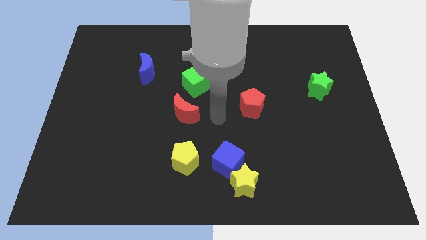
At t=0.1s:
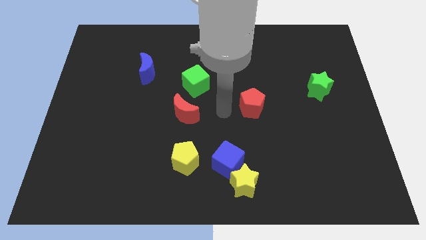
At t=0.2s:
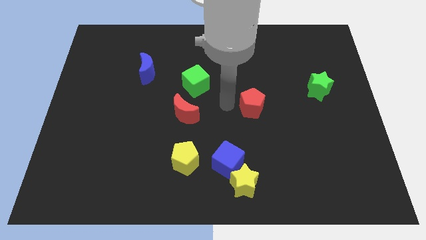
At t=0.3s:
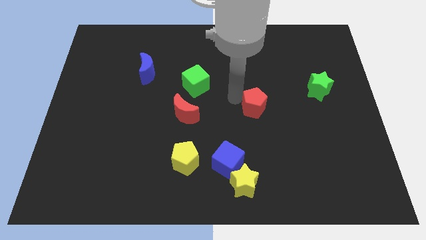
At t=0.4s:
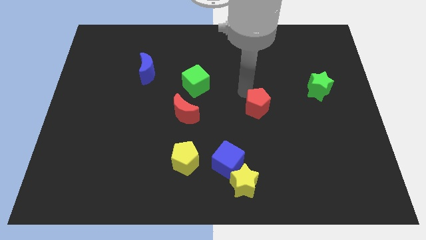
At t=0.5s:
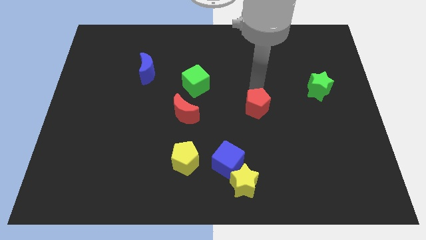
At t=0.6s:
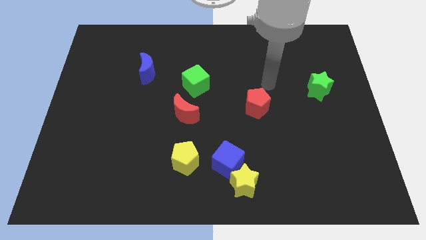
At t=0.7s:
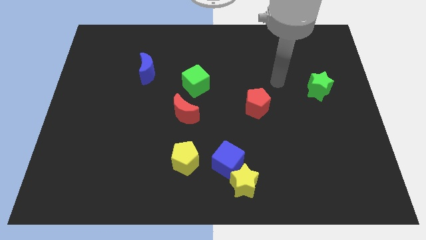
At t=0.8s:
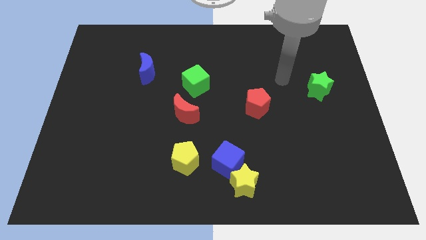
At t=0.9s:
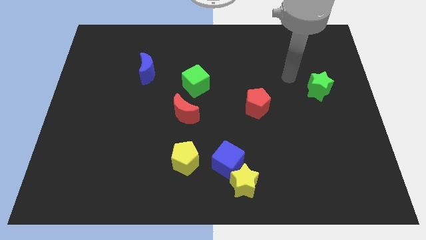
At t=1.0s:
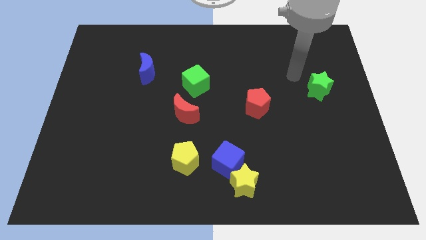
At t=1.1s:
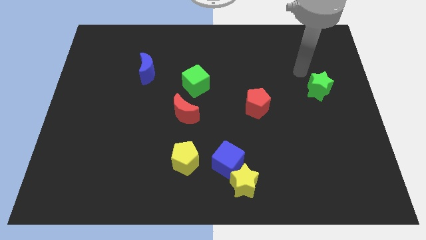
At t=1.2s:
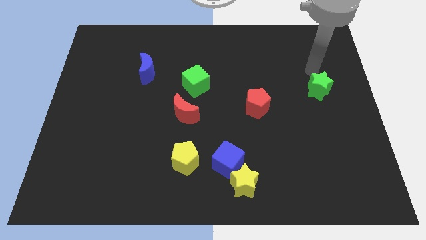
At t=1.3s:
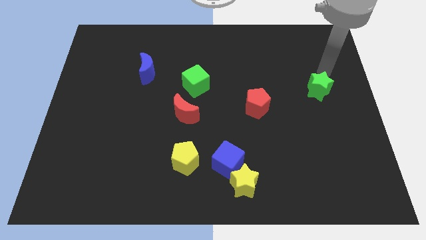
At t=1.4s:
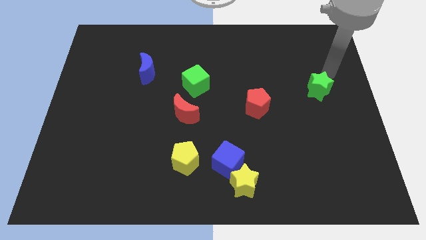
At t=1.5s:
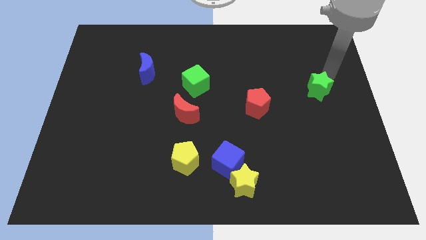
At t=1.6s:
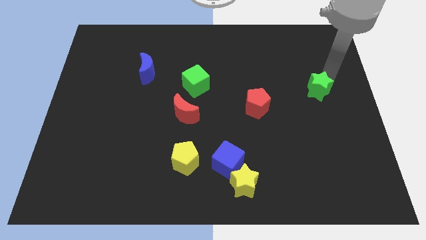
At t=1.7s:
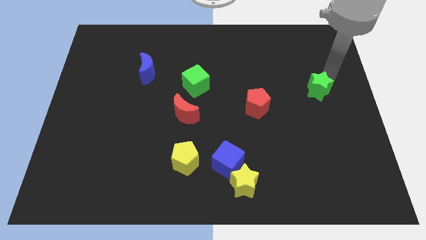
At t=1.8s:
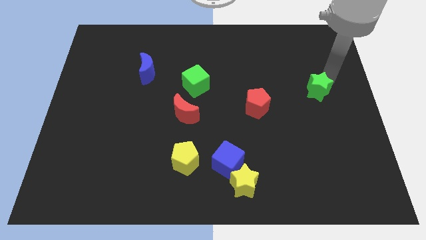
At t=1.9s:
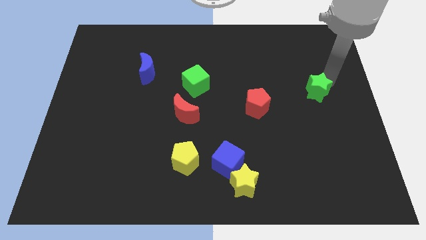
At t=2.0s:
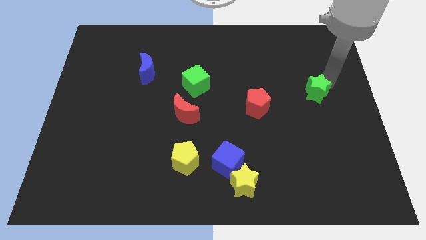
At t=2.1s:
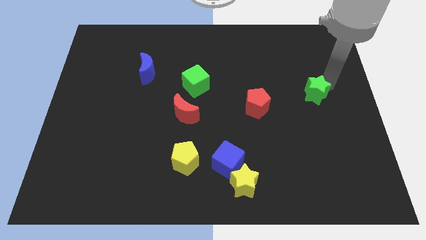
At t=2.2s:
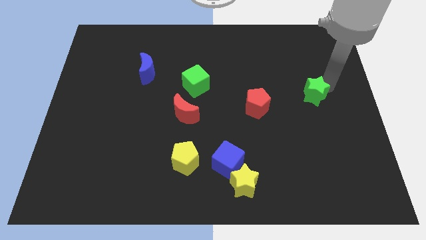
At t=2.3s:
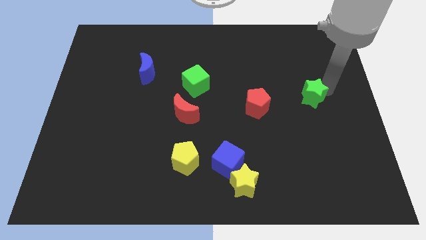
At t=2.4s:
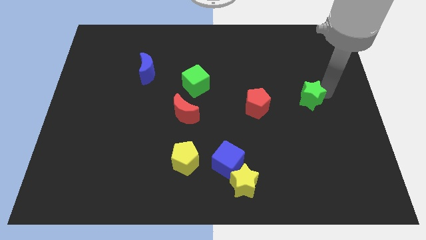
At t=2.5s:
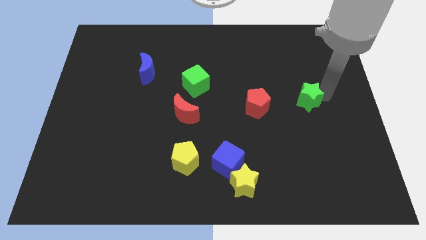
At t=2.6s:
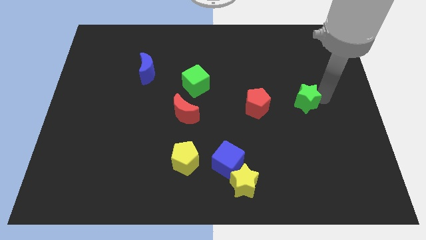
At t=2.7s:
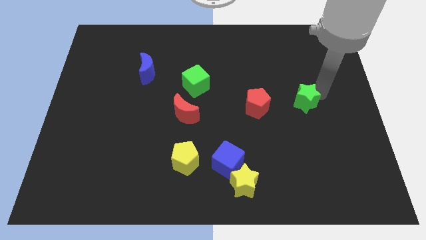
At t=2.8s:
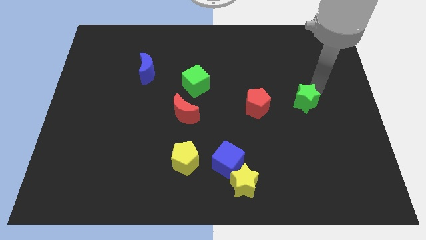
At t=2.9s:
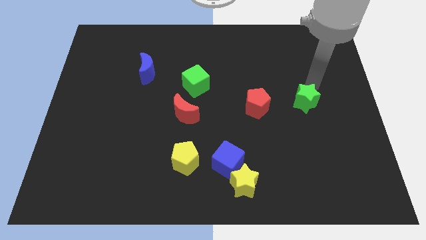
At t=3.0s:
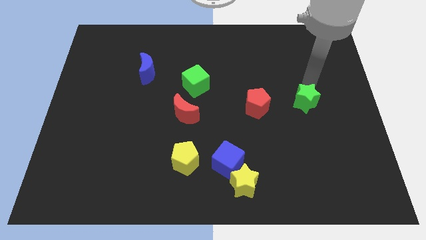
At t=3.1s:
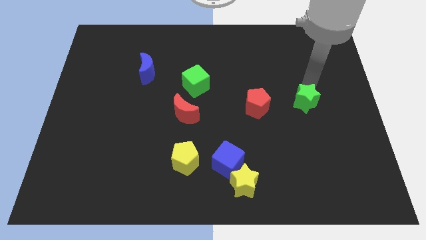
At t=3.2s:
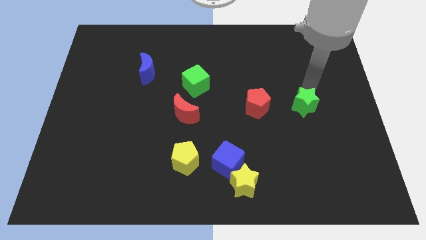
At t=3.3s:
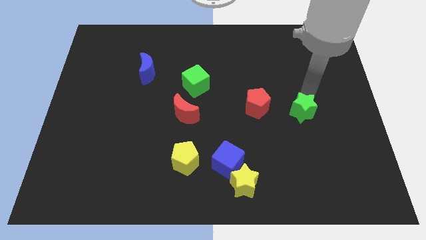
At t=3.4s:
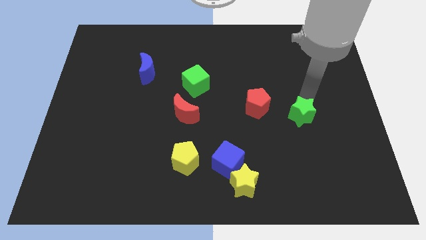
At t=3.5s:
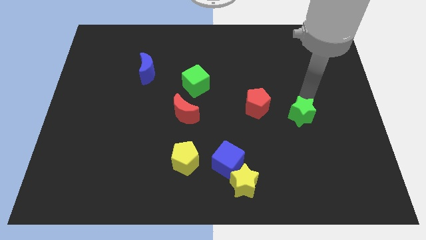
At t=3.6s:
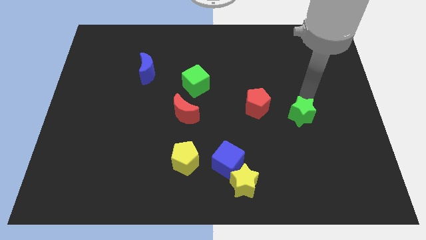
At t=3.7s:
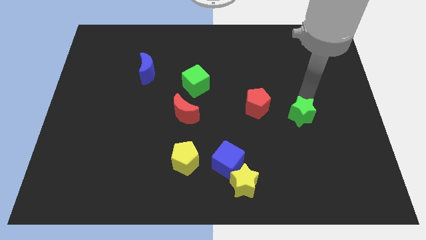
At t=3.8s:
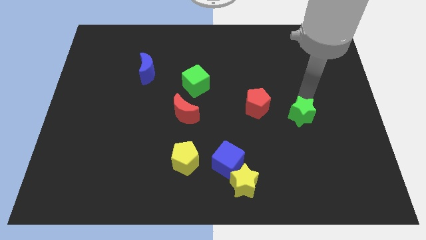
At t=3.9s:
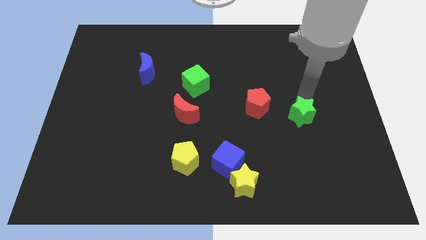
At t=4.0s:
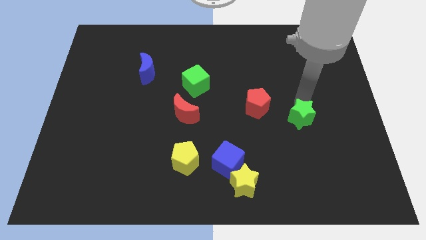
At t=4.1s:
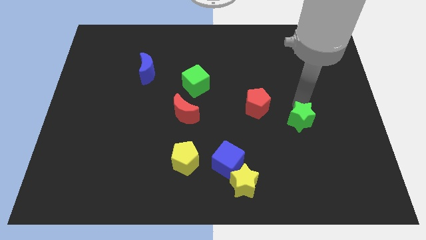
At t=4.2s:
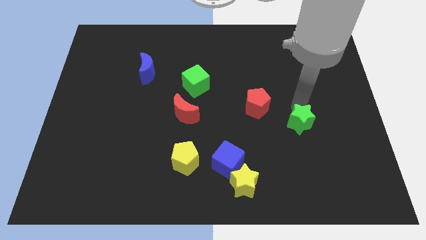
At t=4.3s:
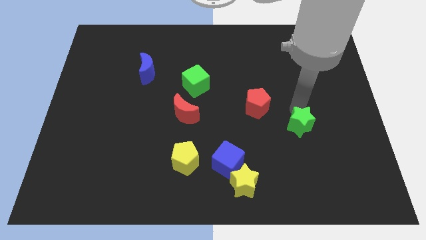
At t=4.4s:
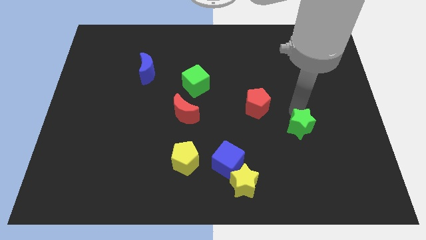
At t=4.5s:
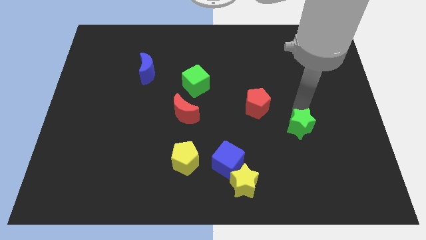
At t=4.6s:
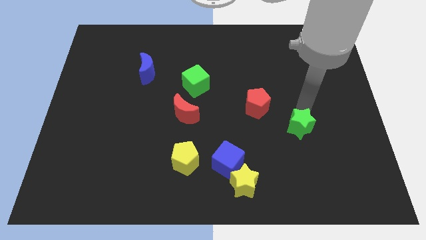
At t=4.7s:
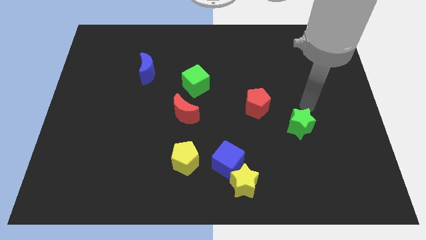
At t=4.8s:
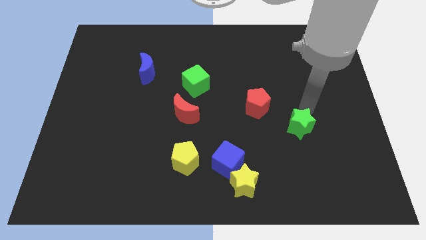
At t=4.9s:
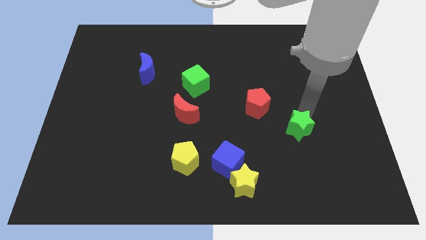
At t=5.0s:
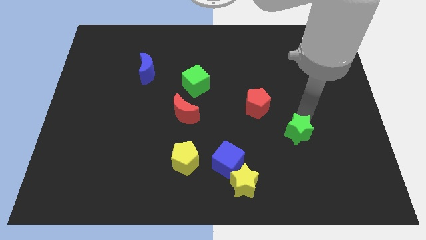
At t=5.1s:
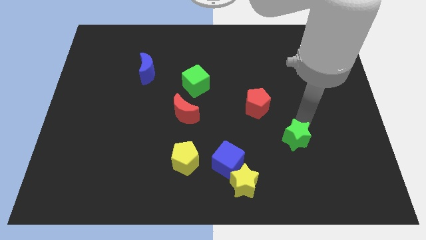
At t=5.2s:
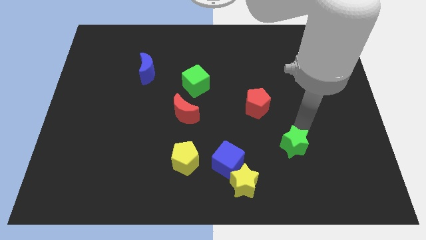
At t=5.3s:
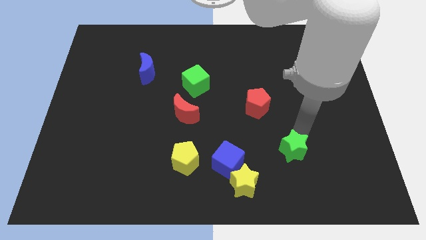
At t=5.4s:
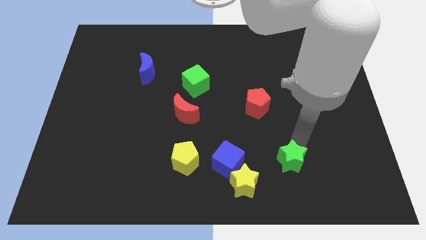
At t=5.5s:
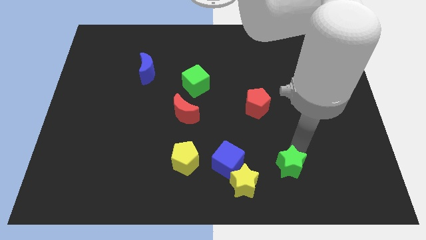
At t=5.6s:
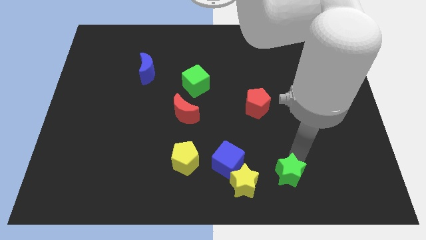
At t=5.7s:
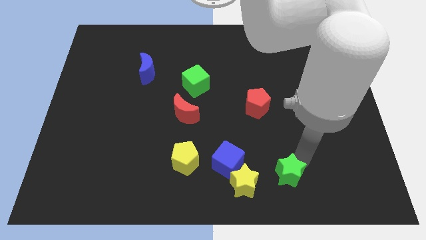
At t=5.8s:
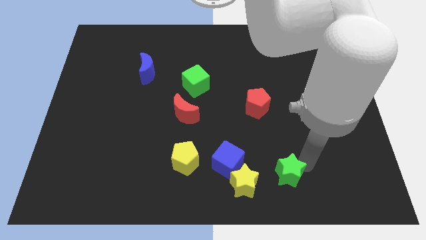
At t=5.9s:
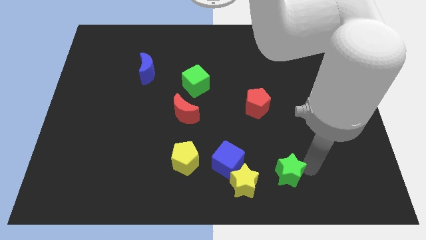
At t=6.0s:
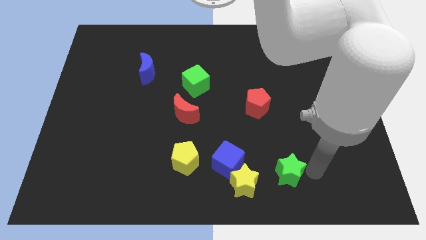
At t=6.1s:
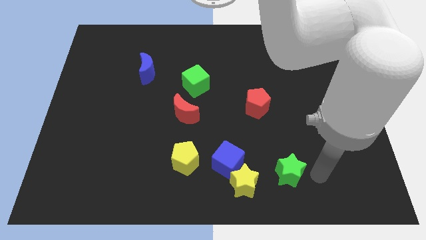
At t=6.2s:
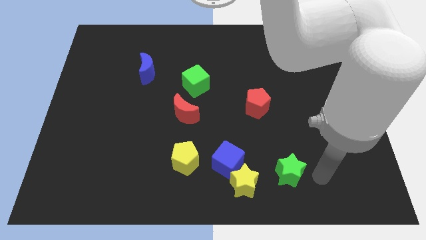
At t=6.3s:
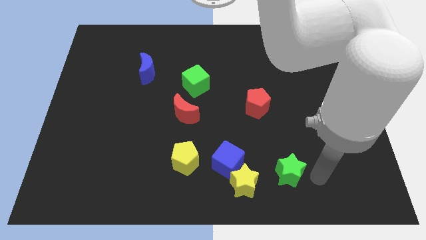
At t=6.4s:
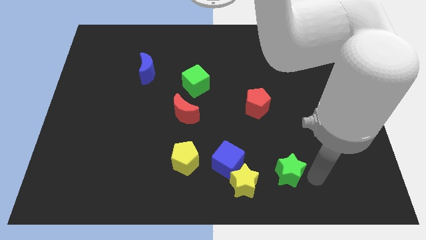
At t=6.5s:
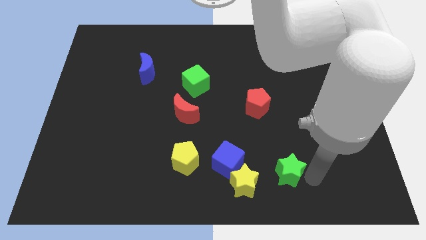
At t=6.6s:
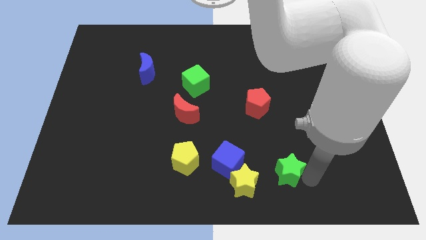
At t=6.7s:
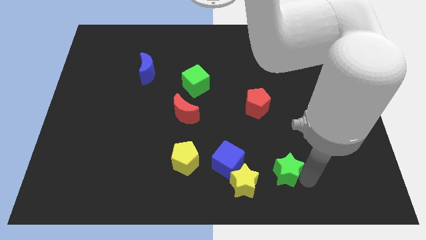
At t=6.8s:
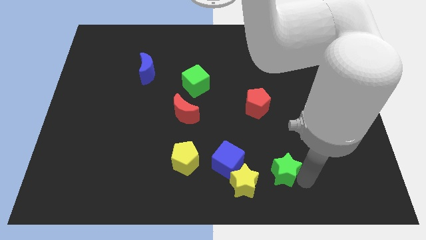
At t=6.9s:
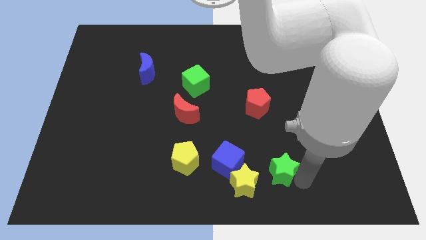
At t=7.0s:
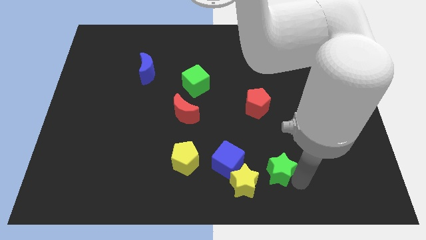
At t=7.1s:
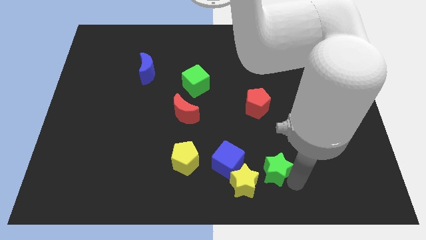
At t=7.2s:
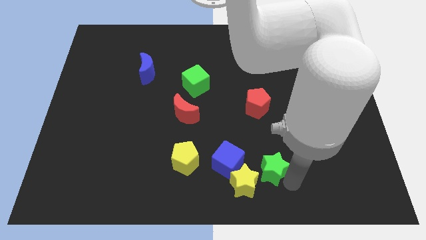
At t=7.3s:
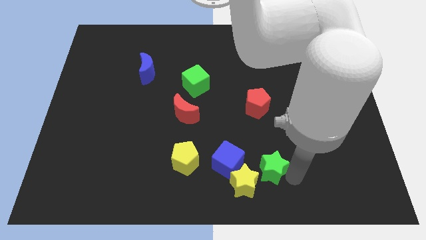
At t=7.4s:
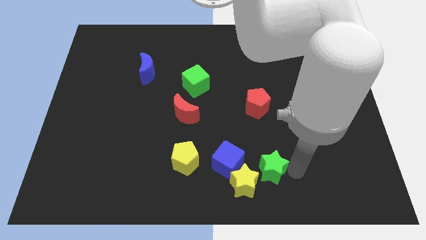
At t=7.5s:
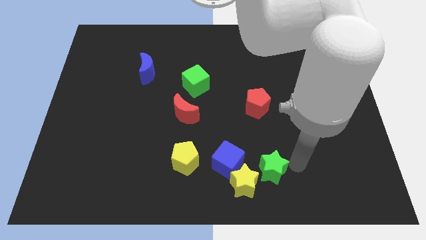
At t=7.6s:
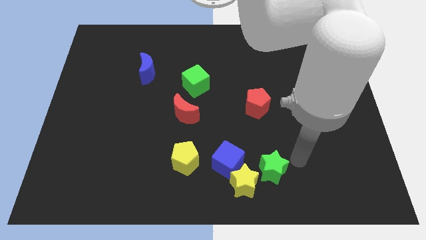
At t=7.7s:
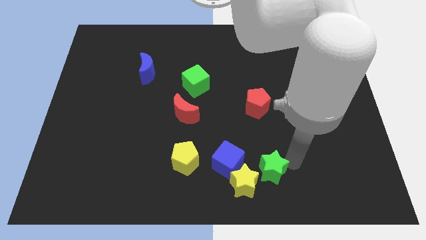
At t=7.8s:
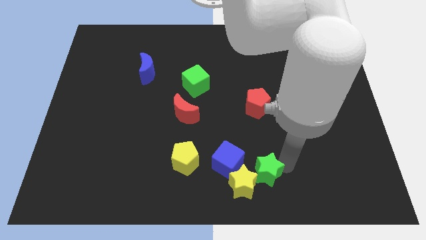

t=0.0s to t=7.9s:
put the green star next to the yellow star
